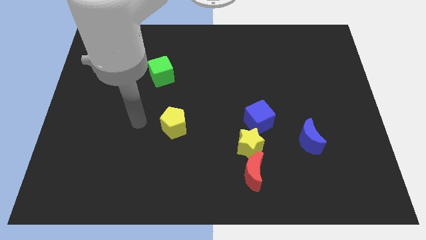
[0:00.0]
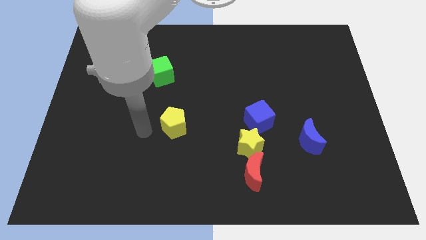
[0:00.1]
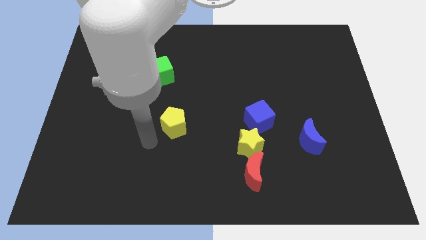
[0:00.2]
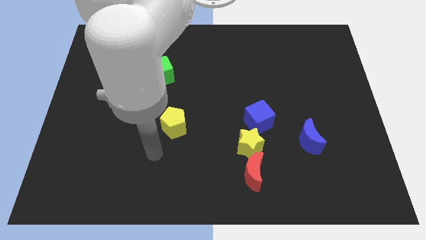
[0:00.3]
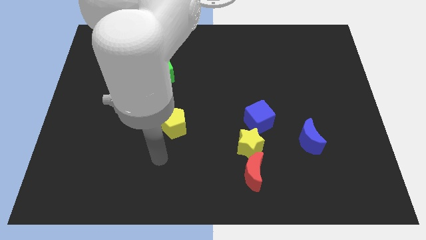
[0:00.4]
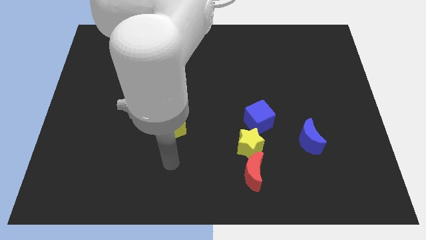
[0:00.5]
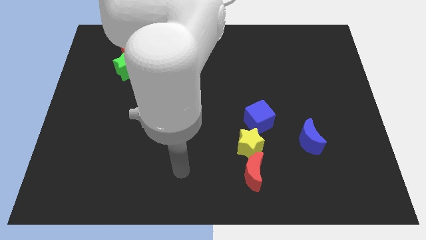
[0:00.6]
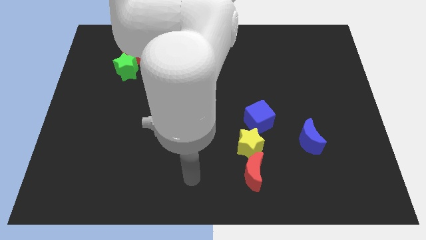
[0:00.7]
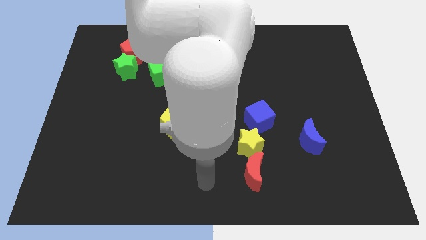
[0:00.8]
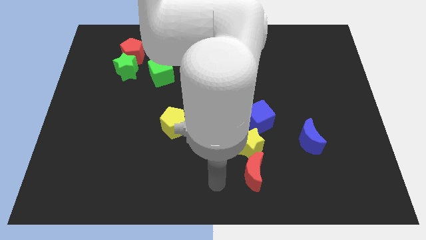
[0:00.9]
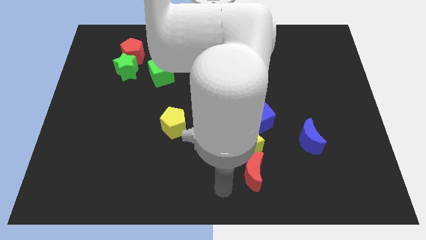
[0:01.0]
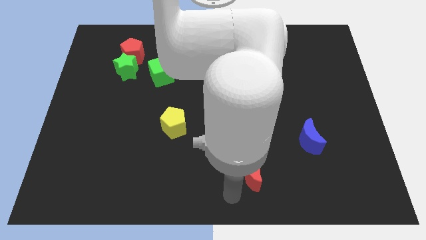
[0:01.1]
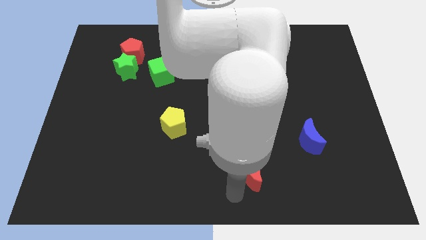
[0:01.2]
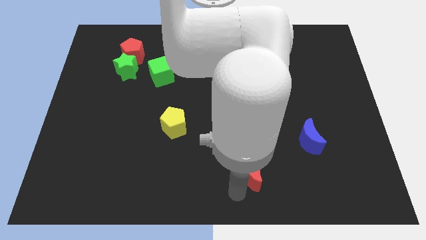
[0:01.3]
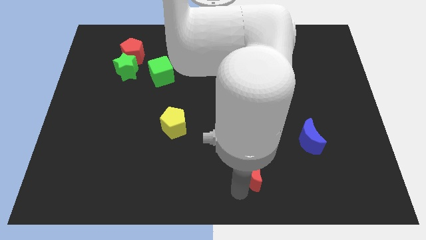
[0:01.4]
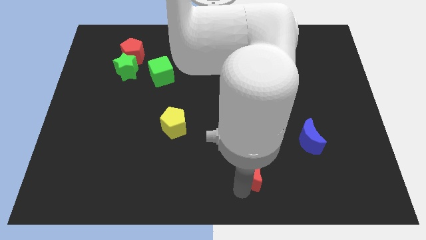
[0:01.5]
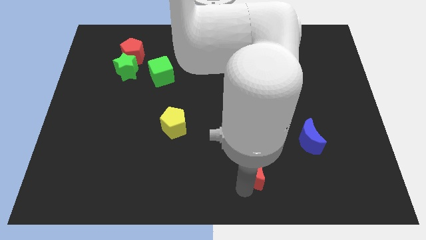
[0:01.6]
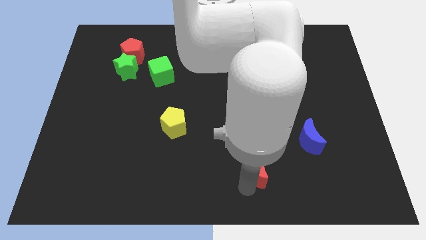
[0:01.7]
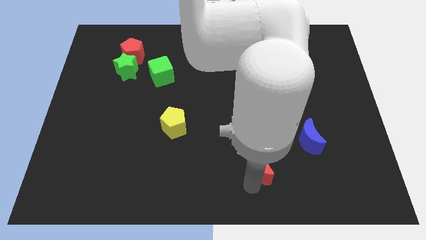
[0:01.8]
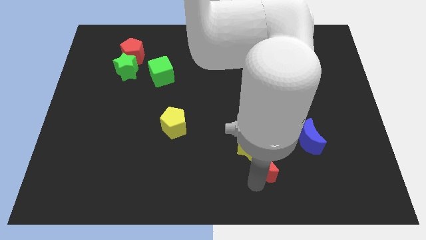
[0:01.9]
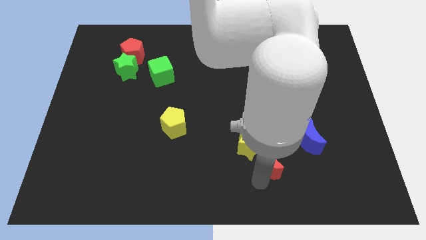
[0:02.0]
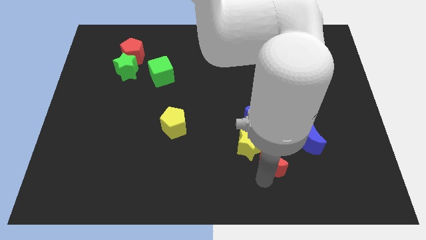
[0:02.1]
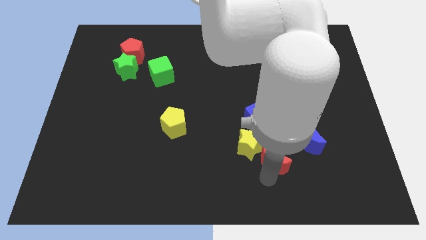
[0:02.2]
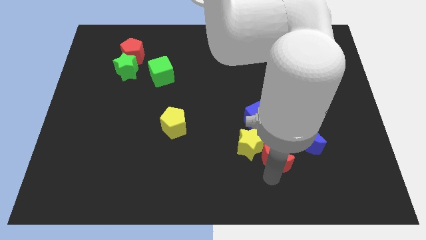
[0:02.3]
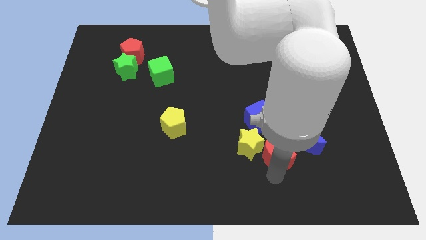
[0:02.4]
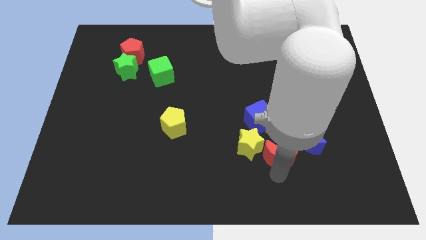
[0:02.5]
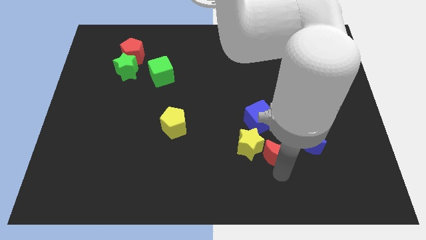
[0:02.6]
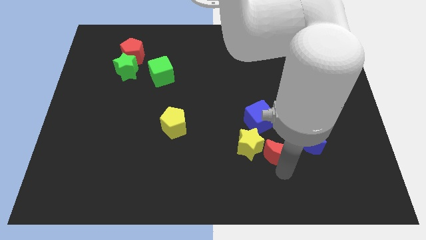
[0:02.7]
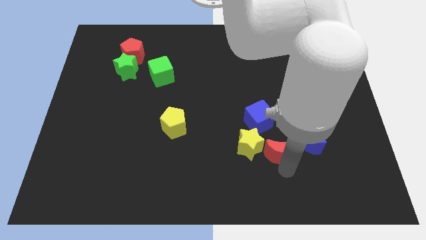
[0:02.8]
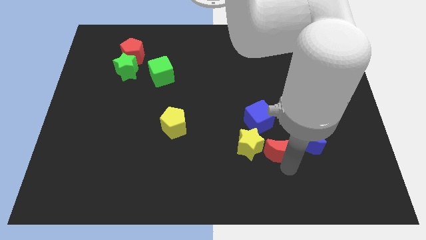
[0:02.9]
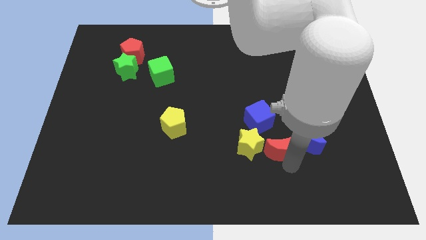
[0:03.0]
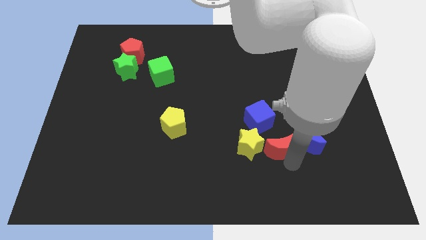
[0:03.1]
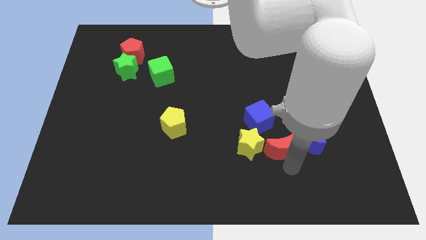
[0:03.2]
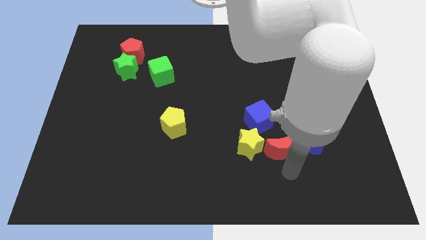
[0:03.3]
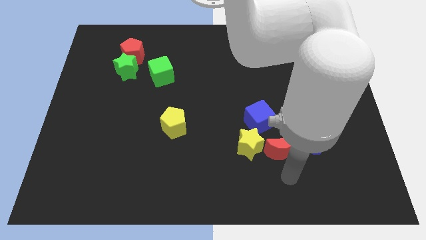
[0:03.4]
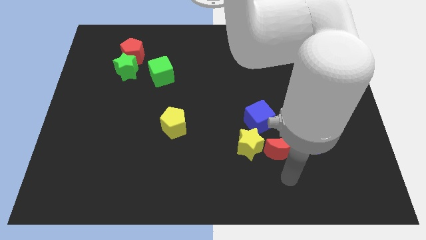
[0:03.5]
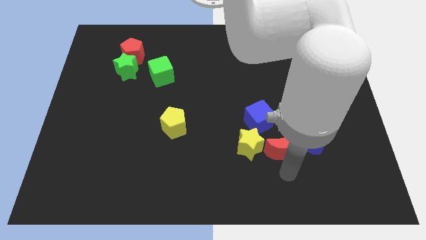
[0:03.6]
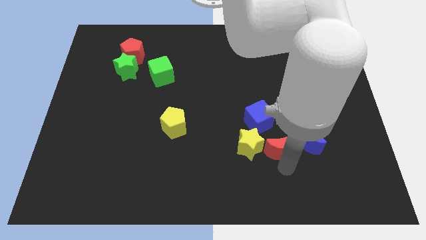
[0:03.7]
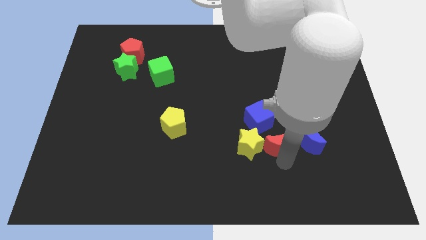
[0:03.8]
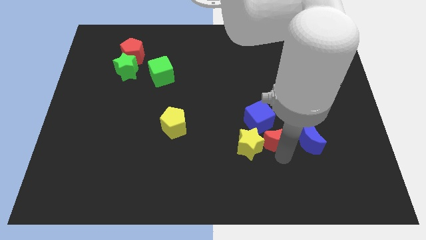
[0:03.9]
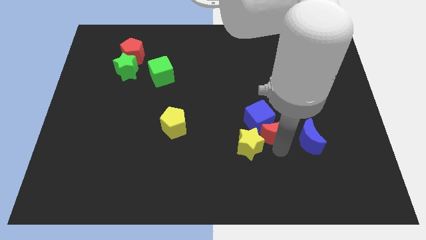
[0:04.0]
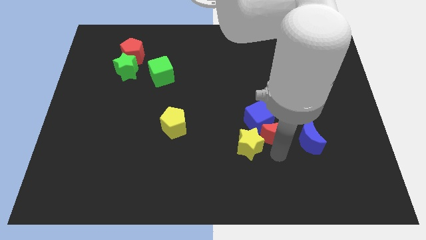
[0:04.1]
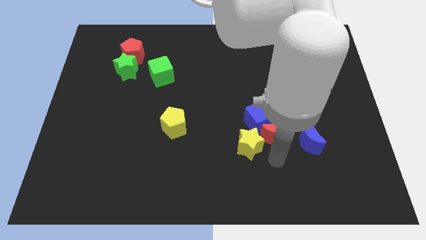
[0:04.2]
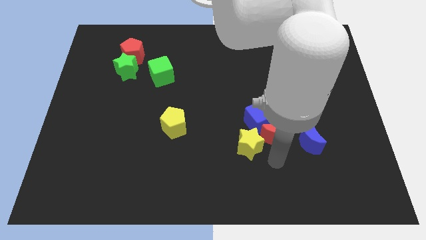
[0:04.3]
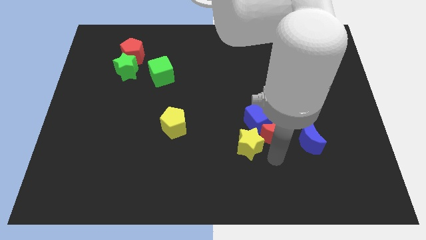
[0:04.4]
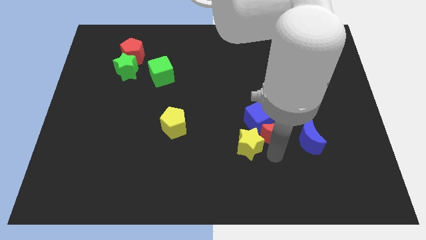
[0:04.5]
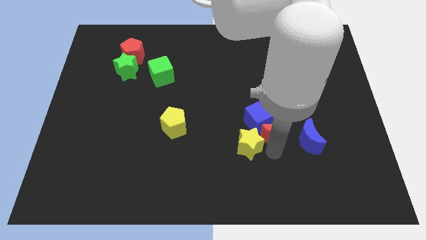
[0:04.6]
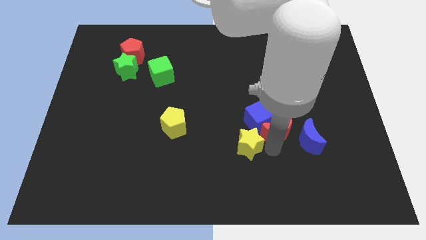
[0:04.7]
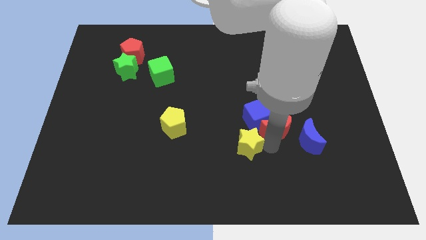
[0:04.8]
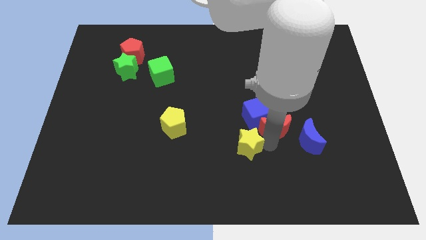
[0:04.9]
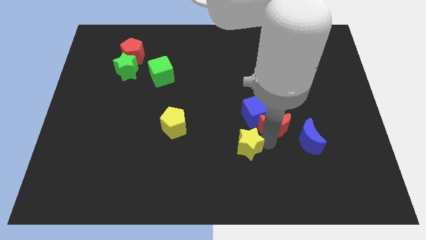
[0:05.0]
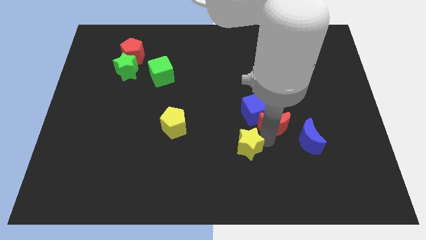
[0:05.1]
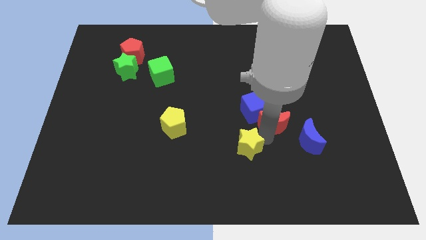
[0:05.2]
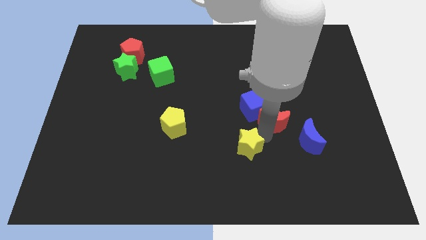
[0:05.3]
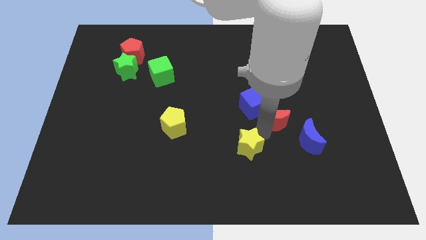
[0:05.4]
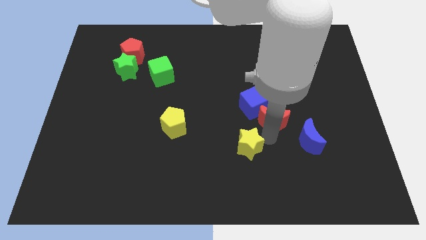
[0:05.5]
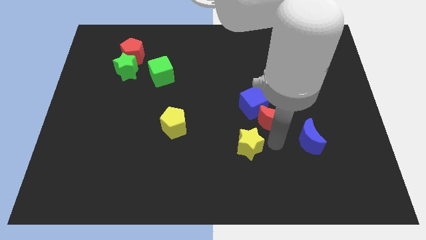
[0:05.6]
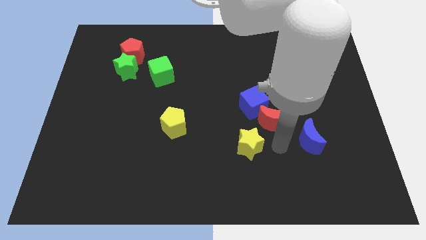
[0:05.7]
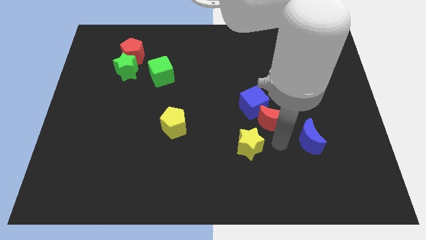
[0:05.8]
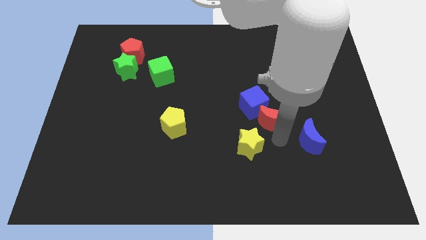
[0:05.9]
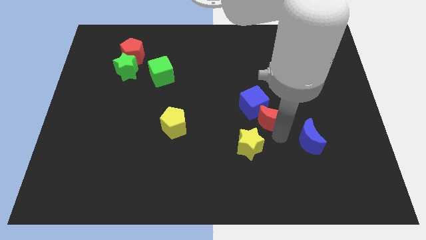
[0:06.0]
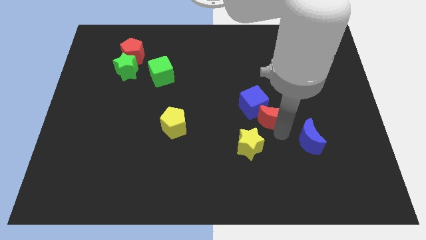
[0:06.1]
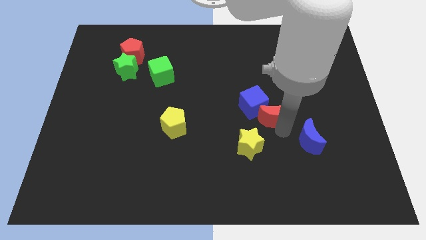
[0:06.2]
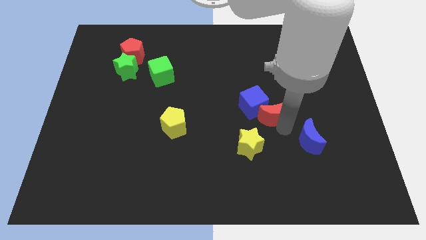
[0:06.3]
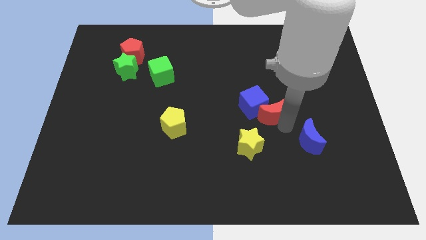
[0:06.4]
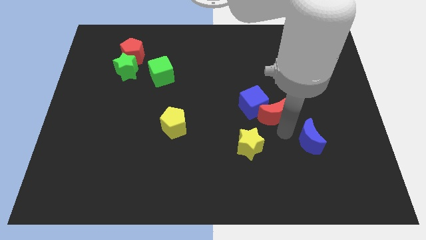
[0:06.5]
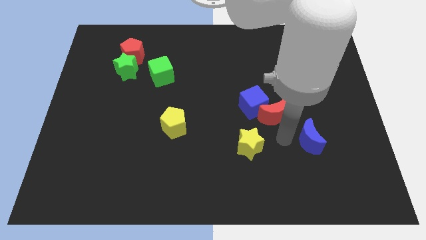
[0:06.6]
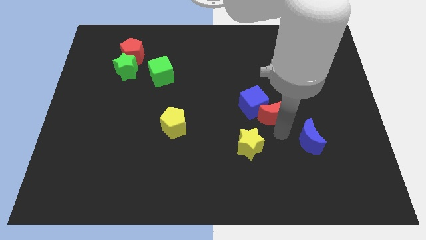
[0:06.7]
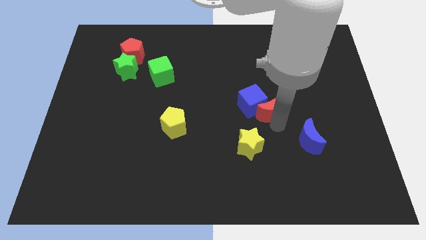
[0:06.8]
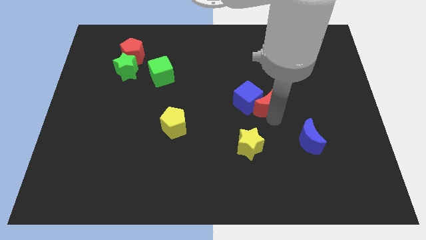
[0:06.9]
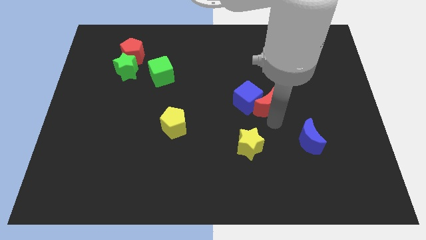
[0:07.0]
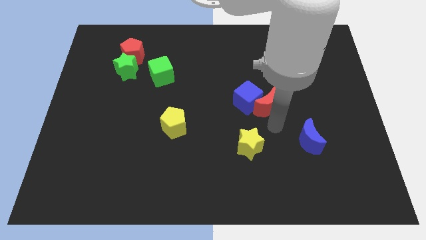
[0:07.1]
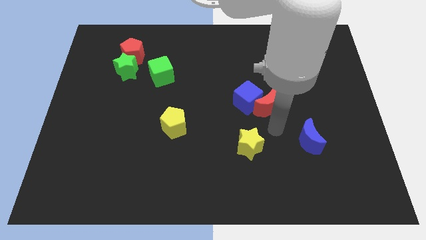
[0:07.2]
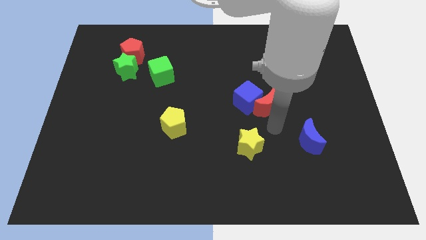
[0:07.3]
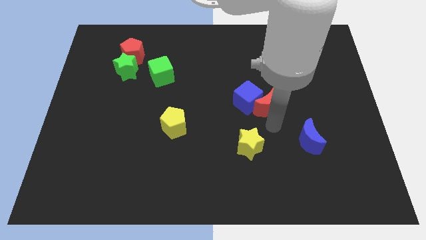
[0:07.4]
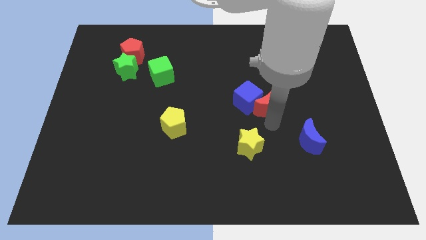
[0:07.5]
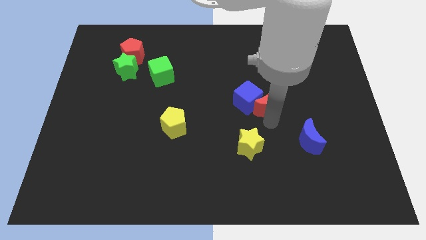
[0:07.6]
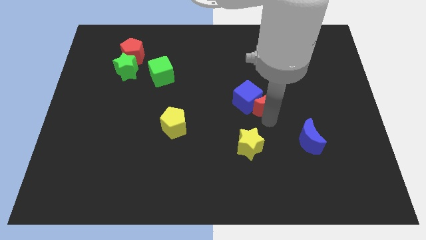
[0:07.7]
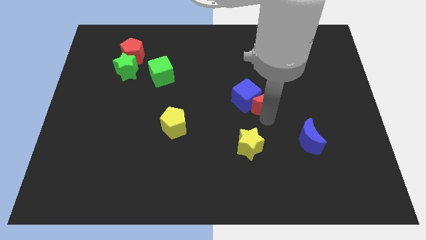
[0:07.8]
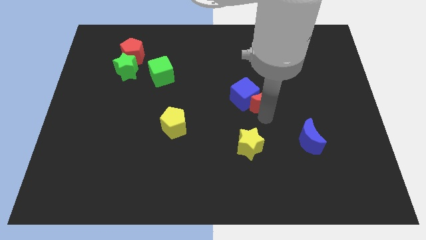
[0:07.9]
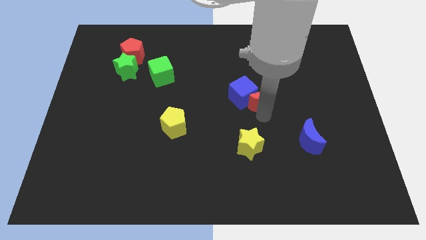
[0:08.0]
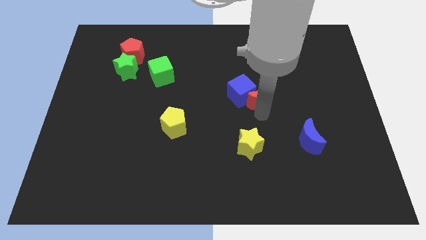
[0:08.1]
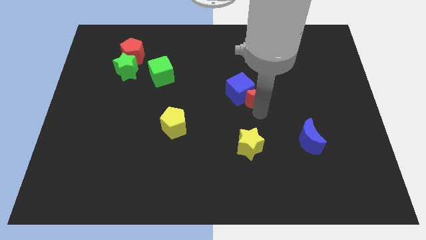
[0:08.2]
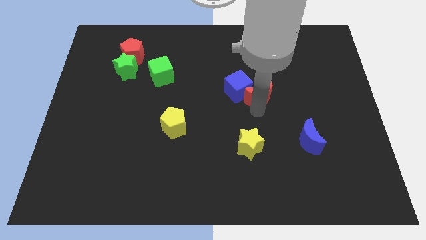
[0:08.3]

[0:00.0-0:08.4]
slide the red moon upwards
